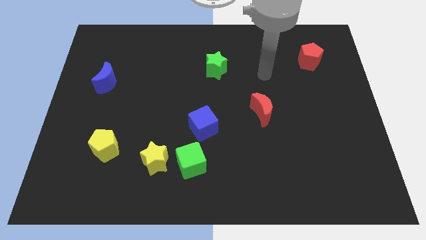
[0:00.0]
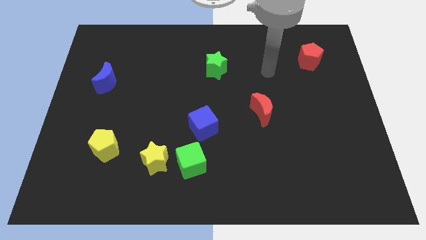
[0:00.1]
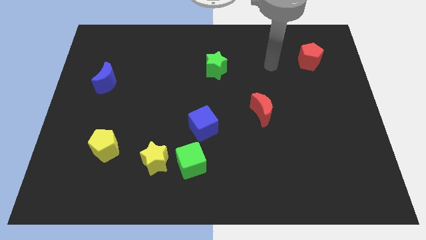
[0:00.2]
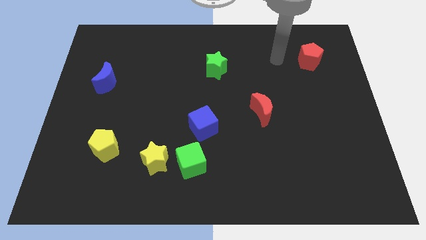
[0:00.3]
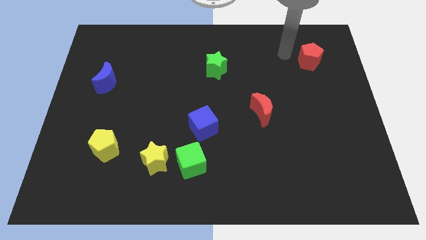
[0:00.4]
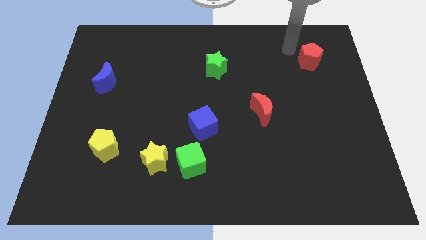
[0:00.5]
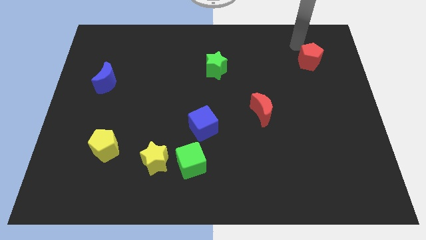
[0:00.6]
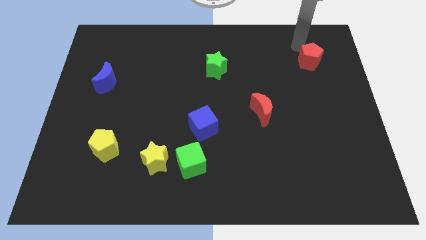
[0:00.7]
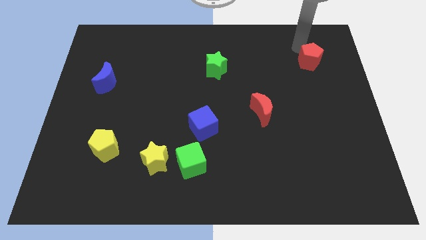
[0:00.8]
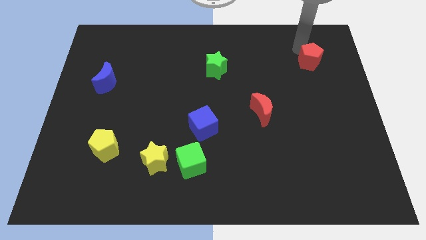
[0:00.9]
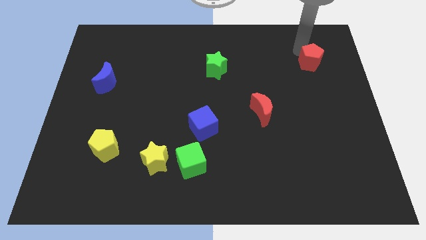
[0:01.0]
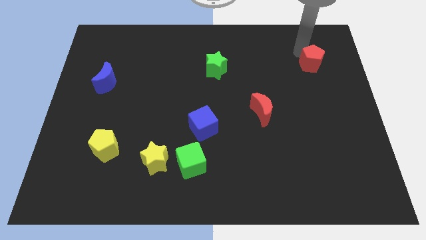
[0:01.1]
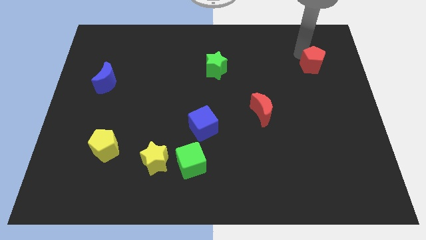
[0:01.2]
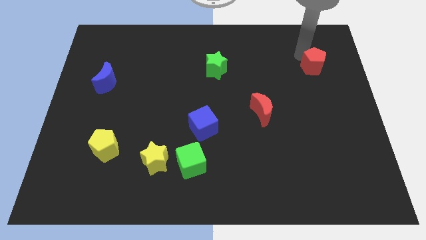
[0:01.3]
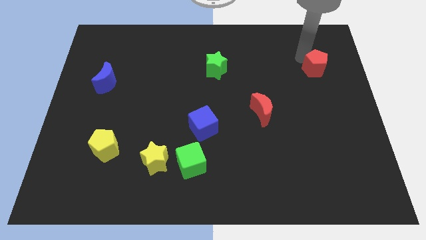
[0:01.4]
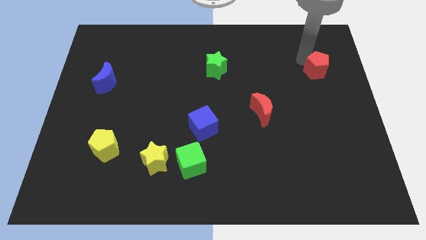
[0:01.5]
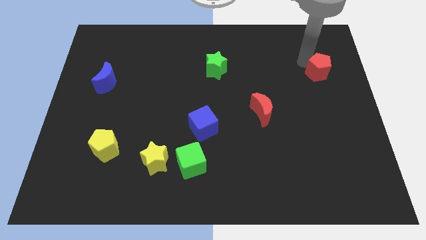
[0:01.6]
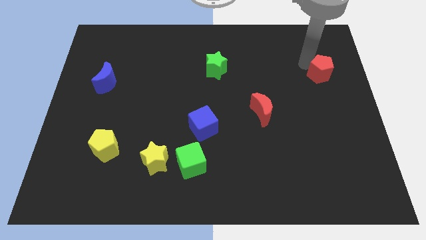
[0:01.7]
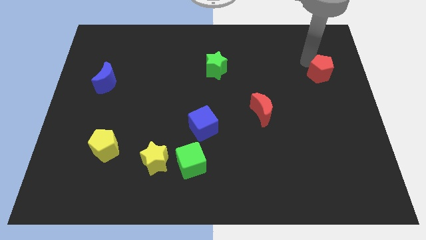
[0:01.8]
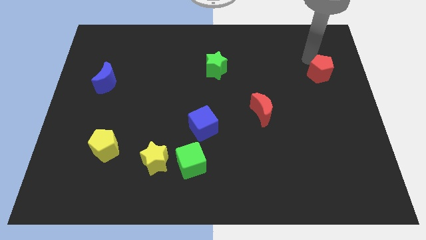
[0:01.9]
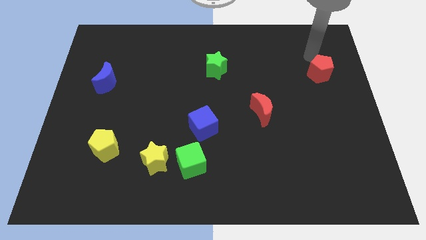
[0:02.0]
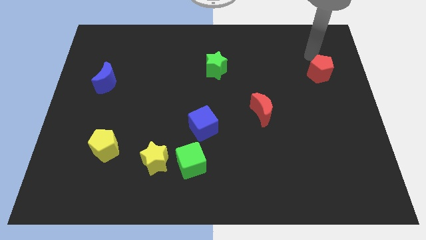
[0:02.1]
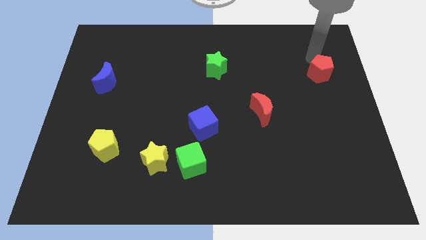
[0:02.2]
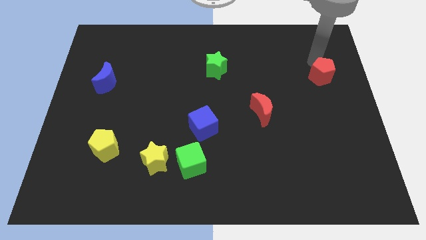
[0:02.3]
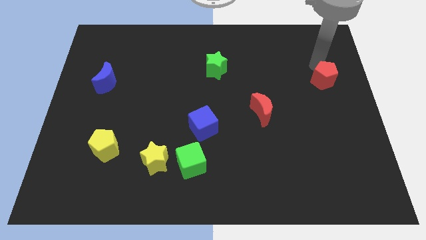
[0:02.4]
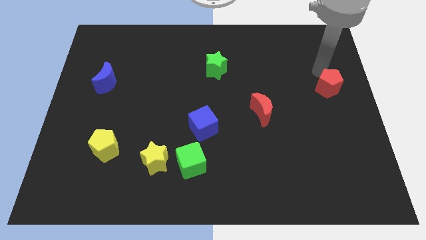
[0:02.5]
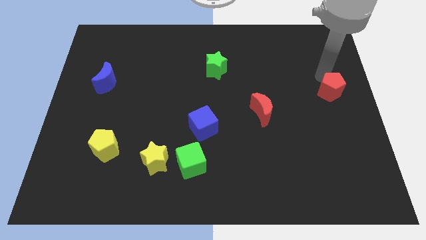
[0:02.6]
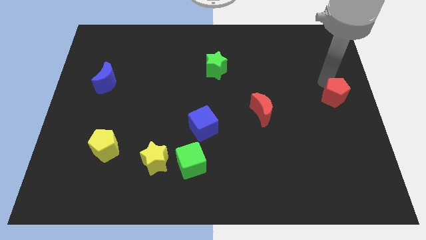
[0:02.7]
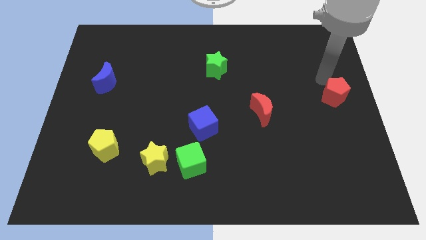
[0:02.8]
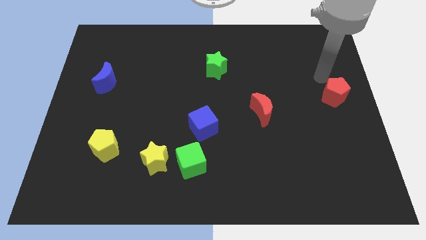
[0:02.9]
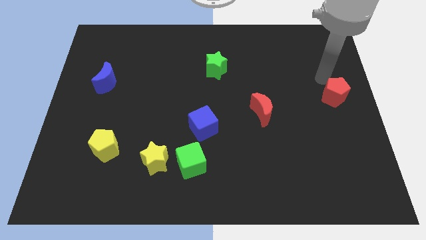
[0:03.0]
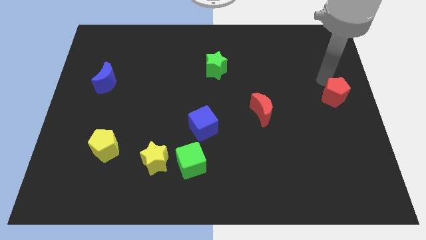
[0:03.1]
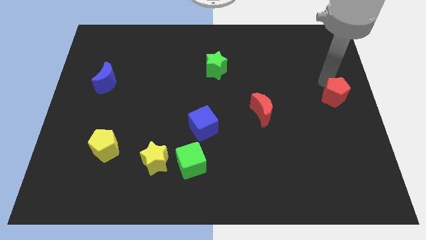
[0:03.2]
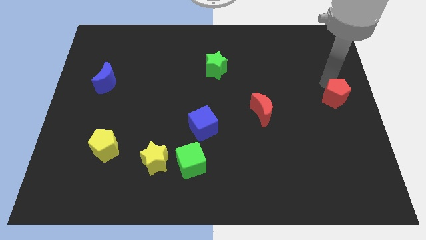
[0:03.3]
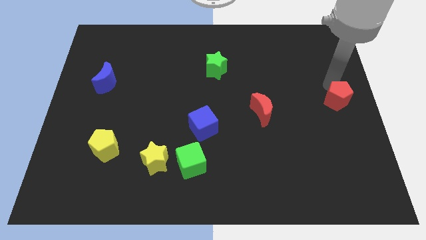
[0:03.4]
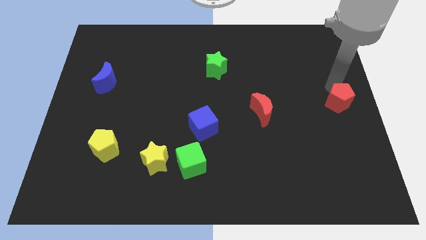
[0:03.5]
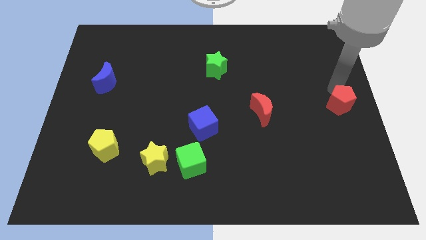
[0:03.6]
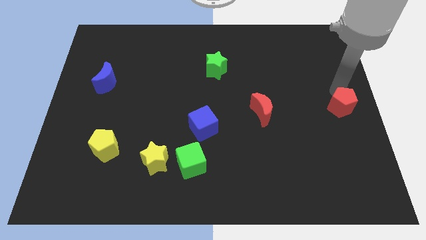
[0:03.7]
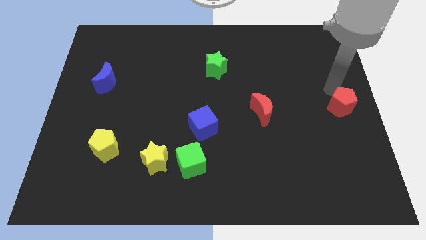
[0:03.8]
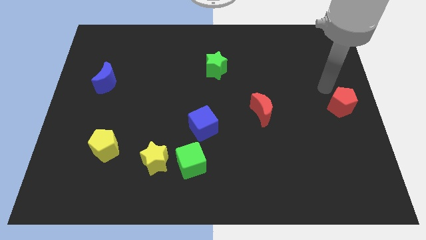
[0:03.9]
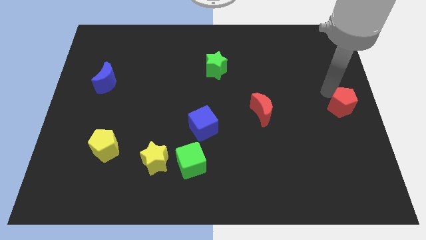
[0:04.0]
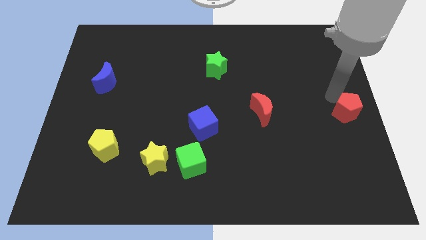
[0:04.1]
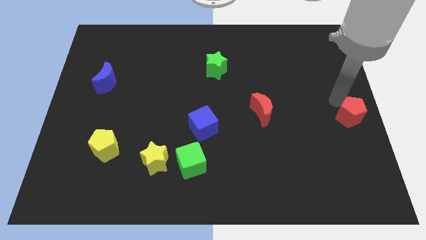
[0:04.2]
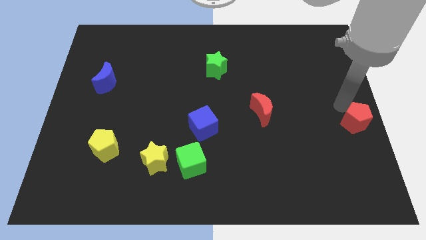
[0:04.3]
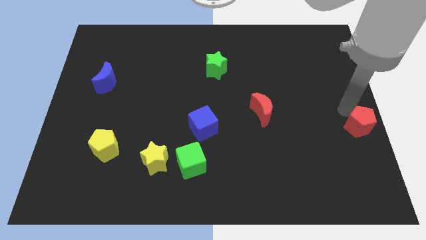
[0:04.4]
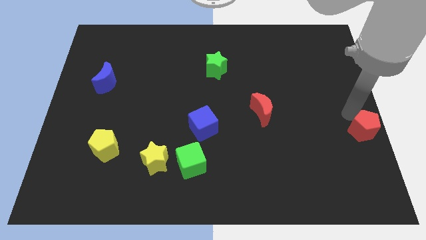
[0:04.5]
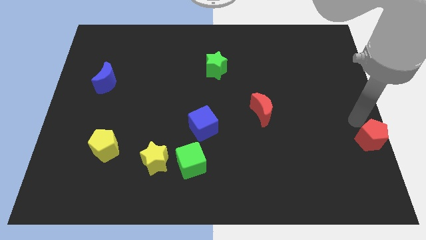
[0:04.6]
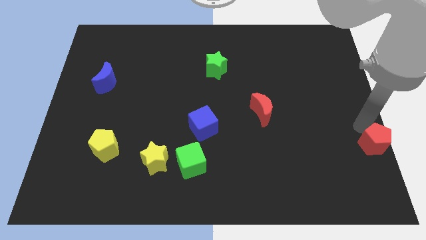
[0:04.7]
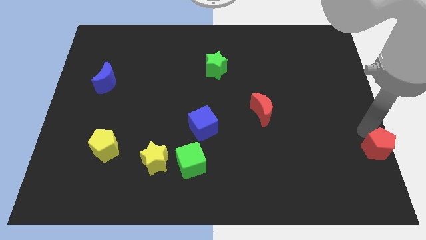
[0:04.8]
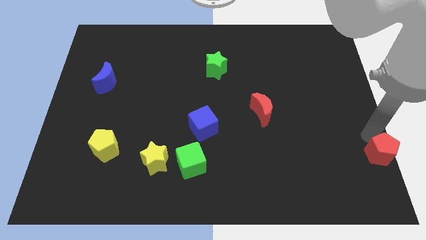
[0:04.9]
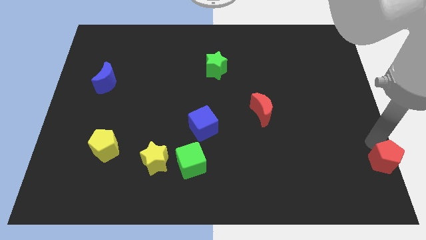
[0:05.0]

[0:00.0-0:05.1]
slide the red pentagon to the bottom right corner

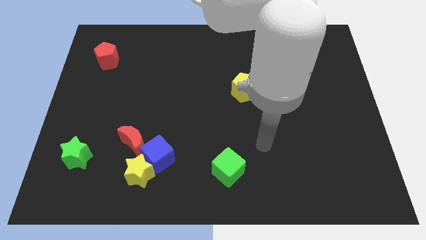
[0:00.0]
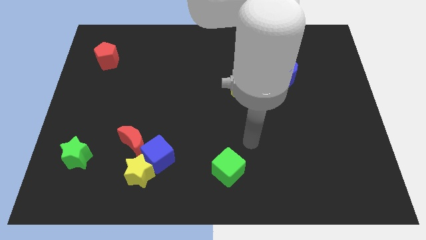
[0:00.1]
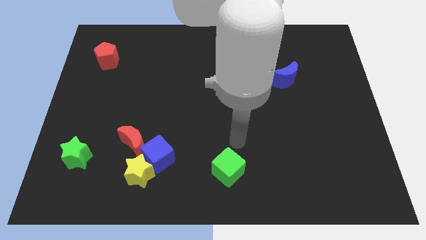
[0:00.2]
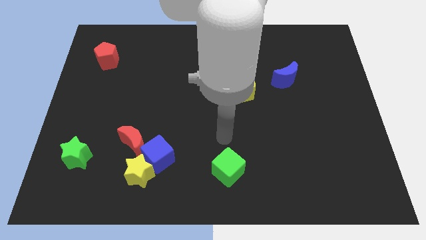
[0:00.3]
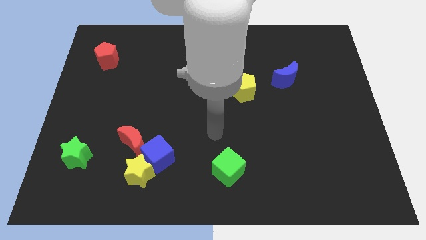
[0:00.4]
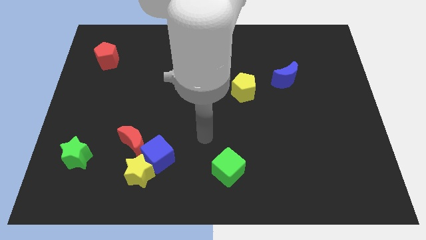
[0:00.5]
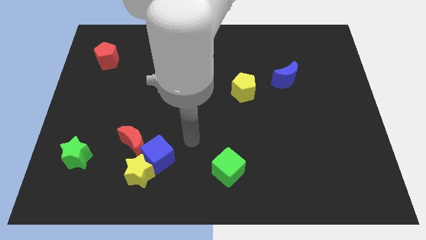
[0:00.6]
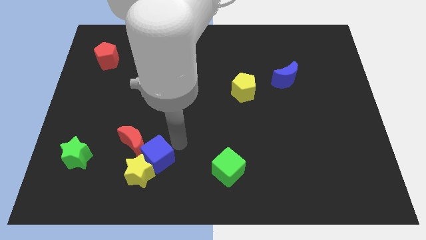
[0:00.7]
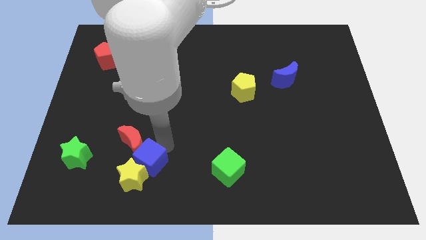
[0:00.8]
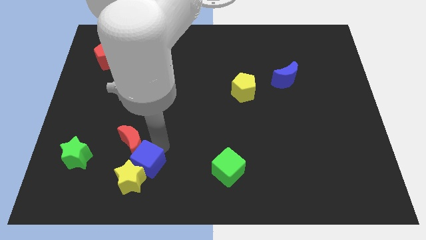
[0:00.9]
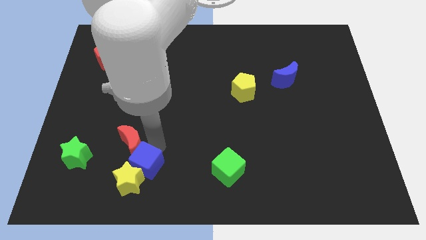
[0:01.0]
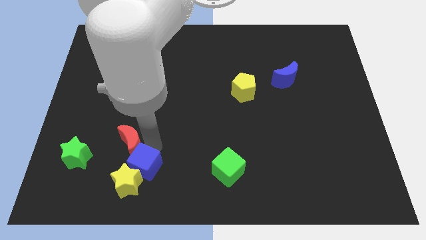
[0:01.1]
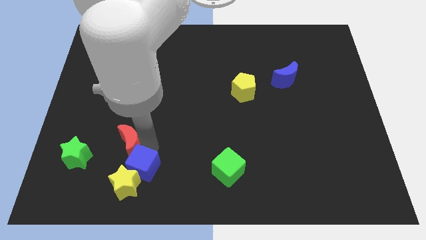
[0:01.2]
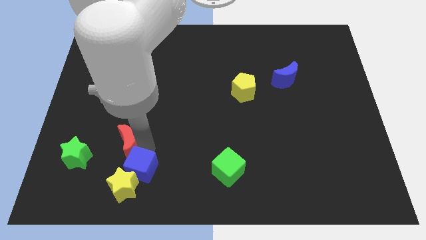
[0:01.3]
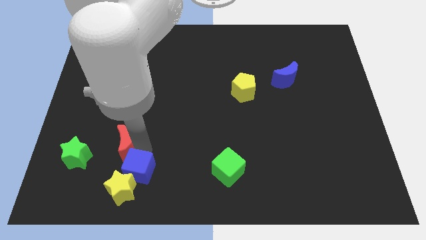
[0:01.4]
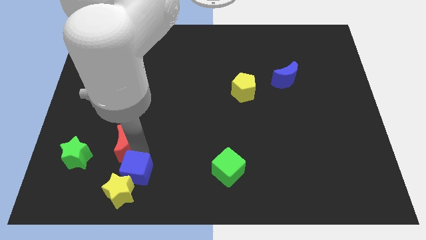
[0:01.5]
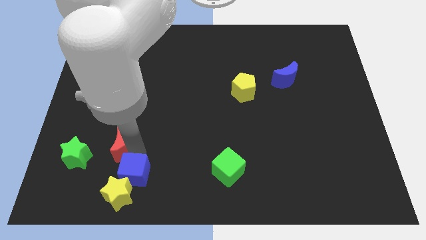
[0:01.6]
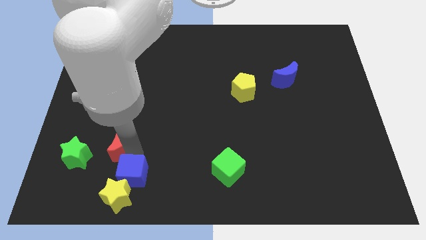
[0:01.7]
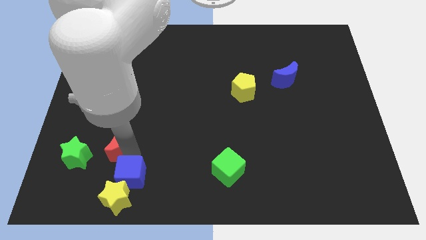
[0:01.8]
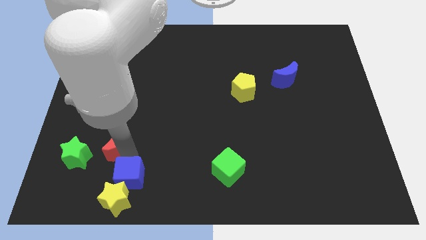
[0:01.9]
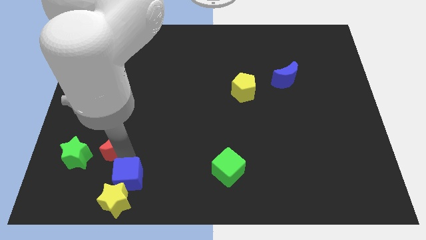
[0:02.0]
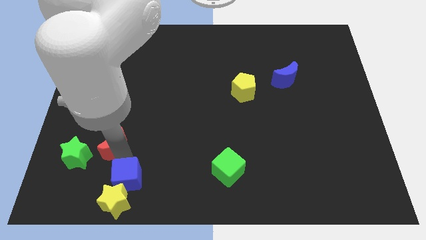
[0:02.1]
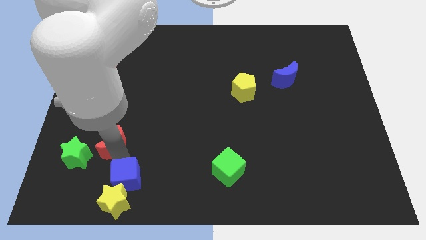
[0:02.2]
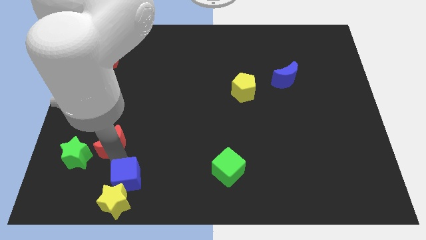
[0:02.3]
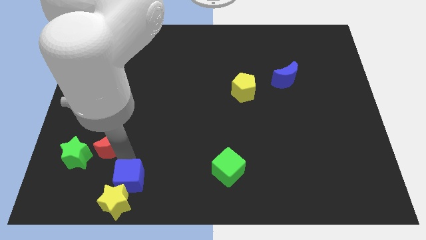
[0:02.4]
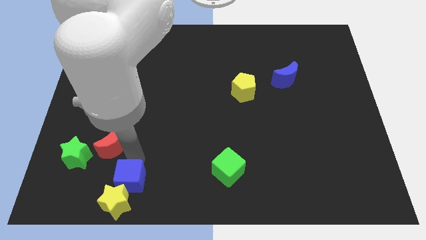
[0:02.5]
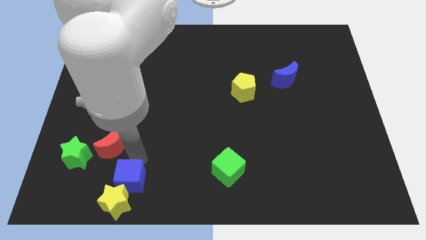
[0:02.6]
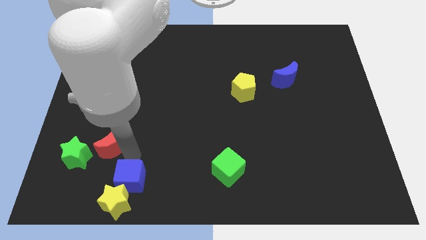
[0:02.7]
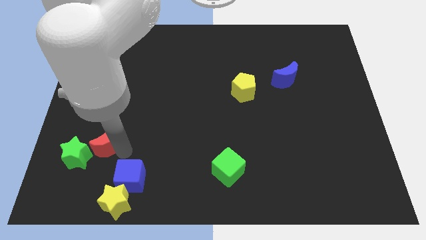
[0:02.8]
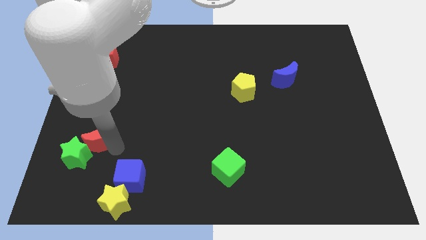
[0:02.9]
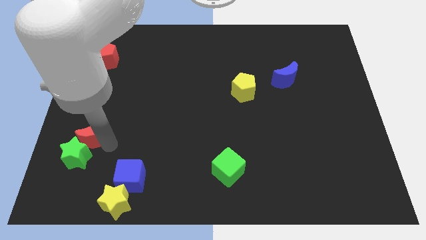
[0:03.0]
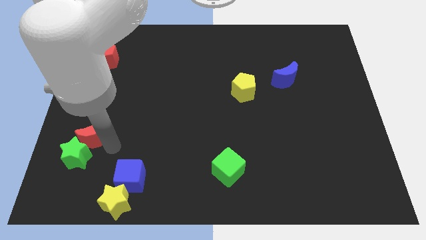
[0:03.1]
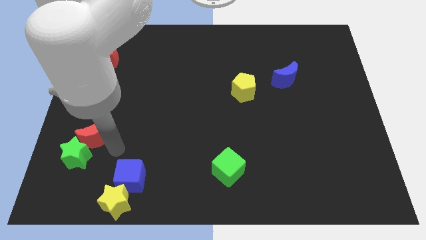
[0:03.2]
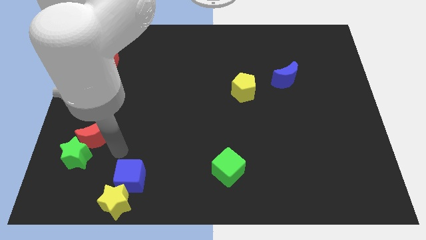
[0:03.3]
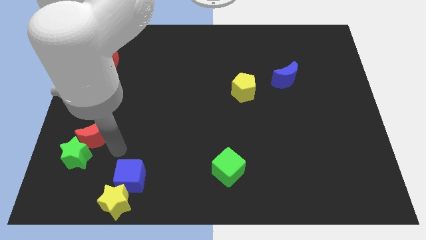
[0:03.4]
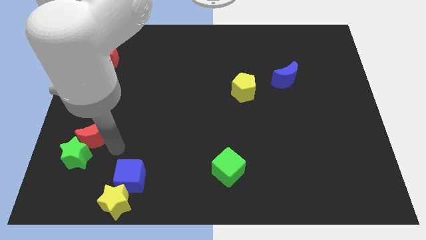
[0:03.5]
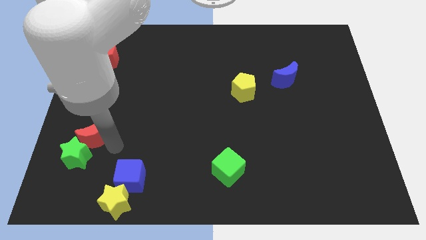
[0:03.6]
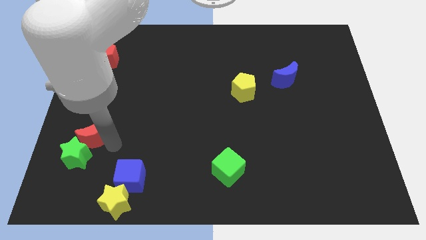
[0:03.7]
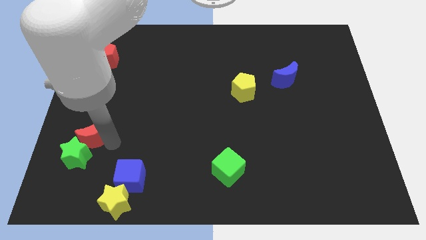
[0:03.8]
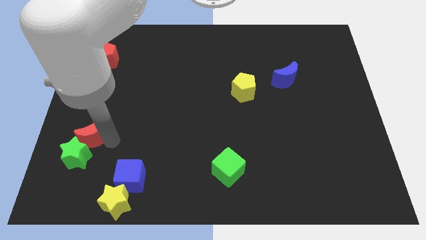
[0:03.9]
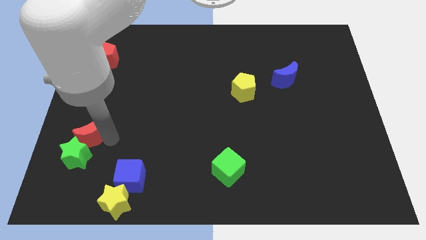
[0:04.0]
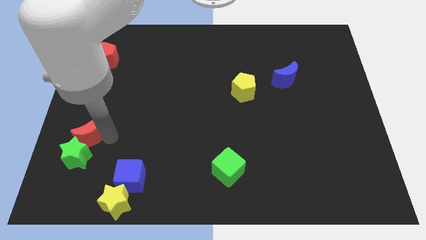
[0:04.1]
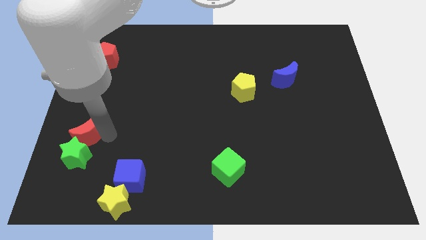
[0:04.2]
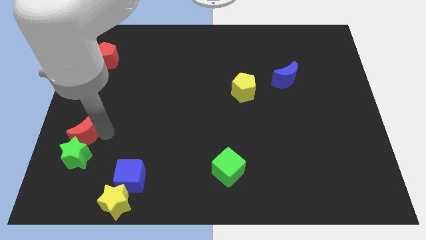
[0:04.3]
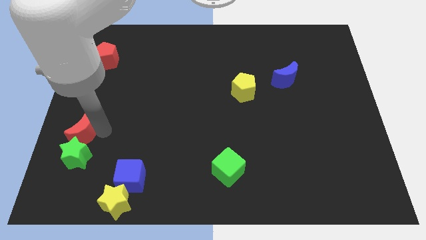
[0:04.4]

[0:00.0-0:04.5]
push the red moon to the center left
